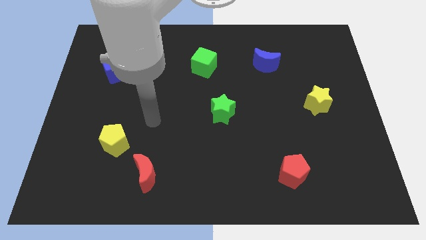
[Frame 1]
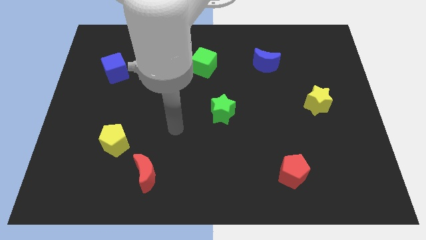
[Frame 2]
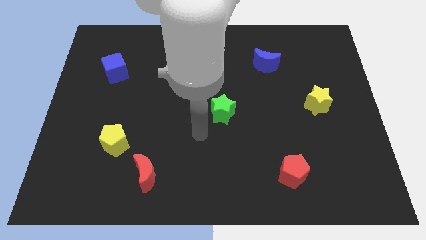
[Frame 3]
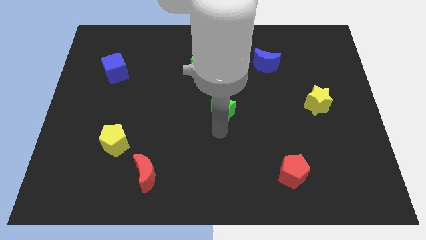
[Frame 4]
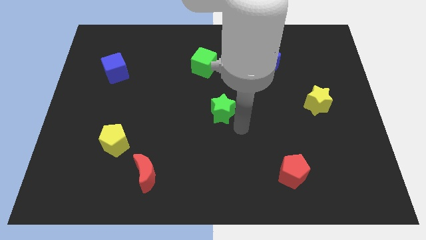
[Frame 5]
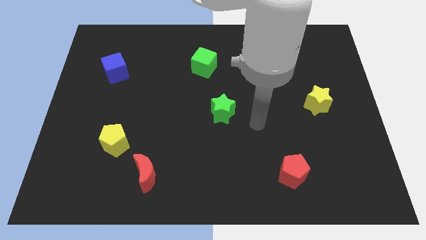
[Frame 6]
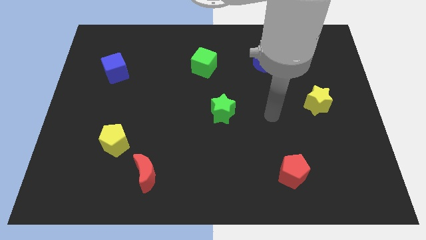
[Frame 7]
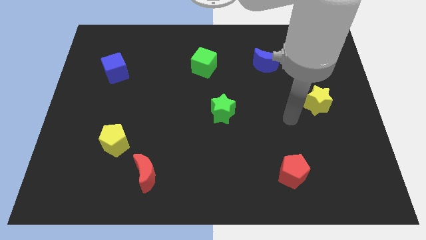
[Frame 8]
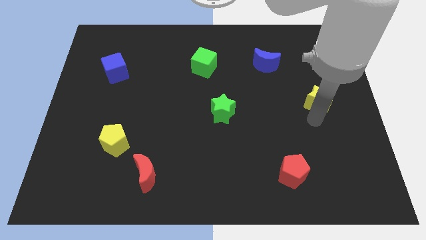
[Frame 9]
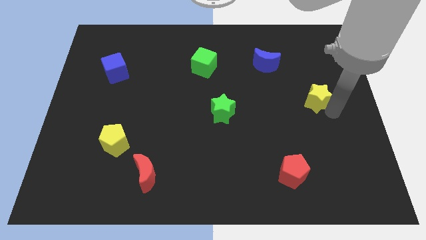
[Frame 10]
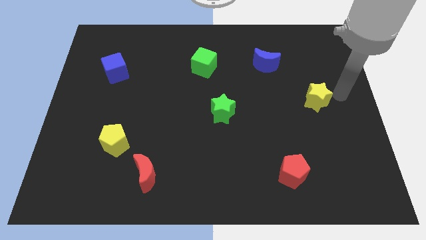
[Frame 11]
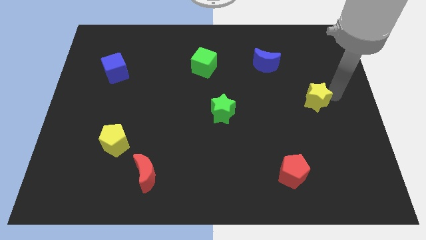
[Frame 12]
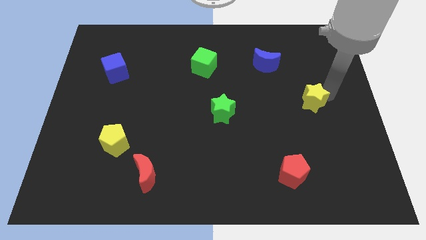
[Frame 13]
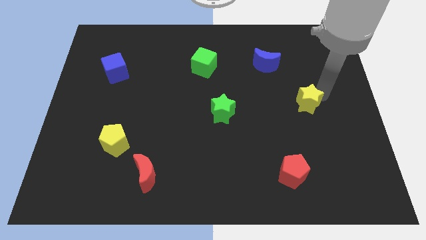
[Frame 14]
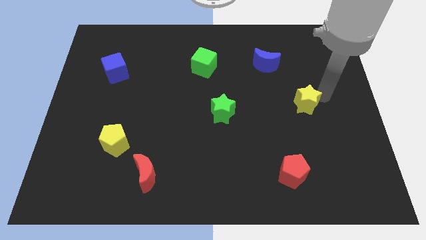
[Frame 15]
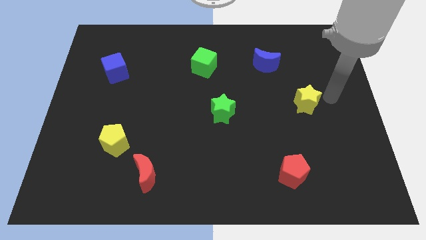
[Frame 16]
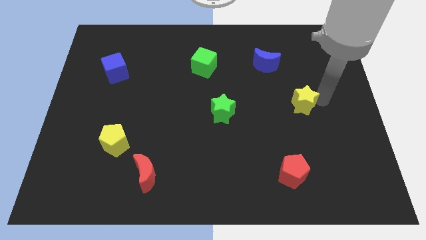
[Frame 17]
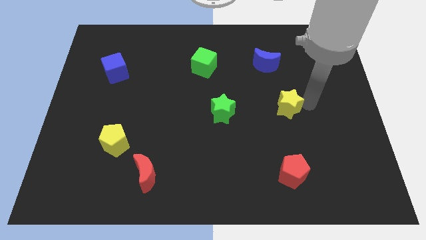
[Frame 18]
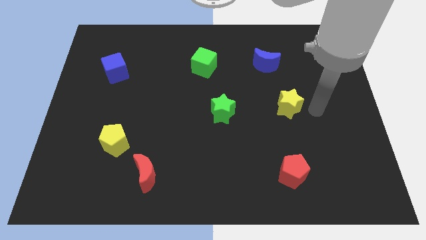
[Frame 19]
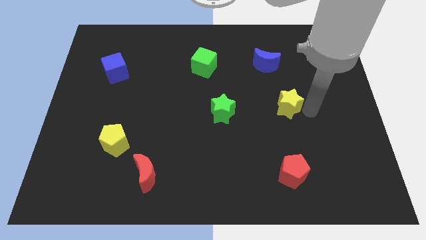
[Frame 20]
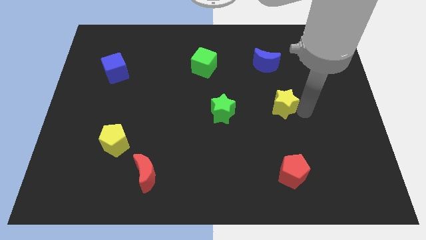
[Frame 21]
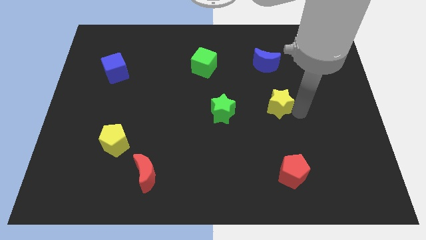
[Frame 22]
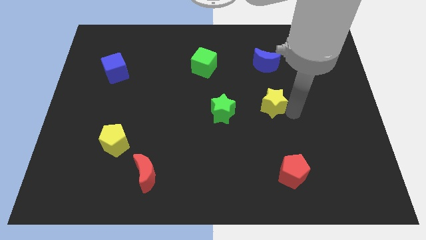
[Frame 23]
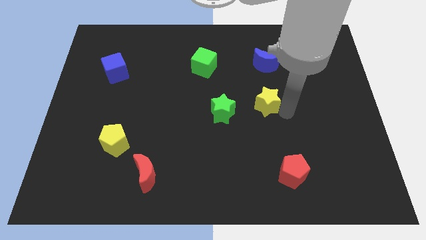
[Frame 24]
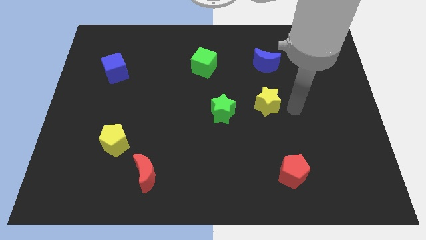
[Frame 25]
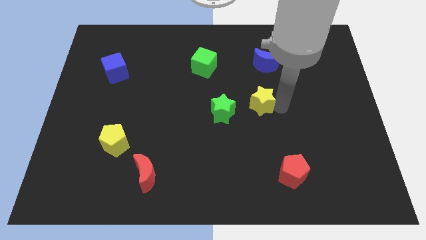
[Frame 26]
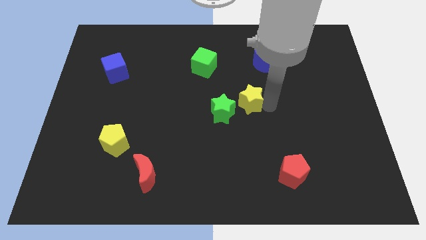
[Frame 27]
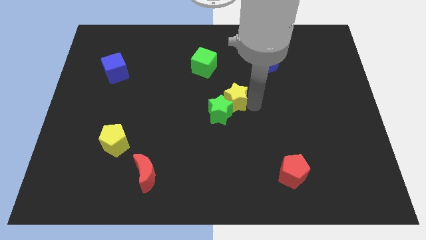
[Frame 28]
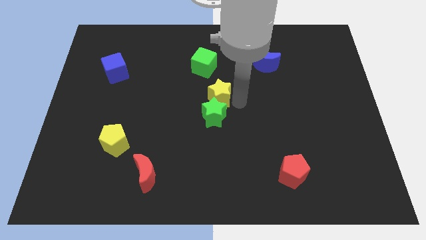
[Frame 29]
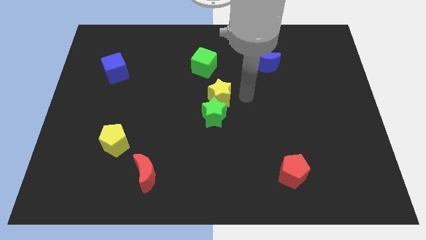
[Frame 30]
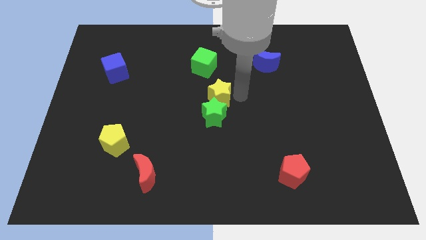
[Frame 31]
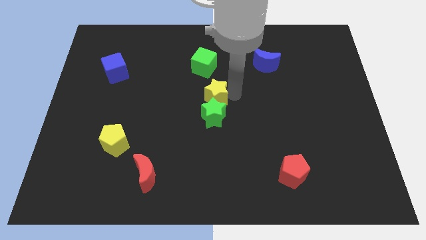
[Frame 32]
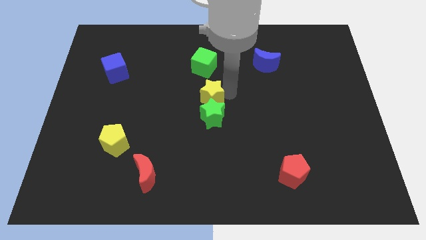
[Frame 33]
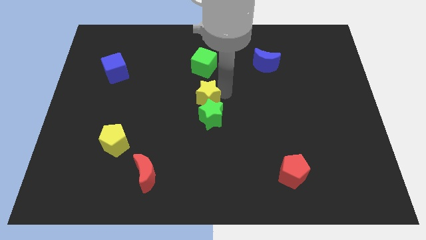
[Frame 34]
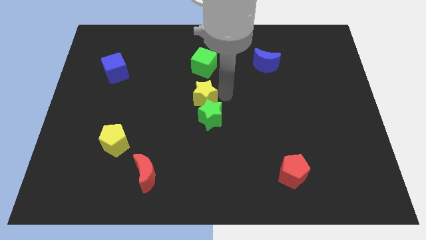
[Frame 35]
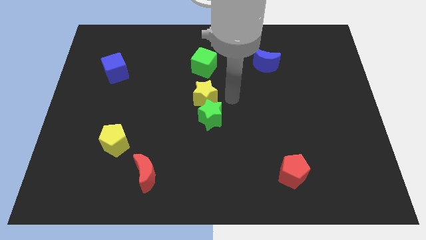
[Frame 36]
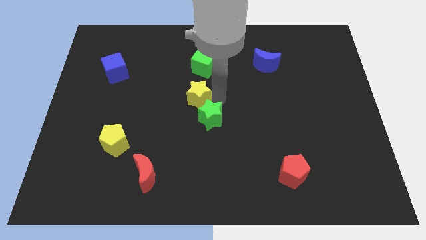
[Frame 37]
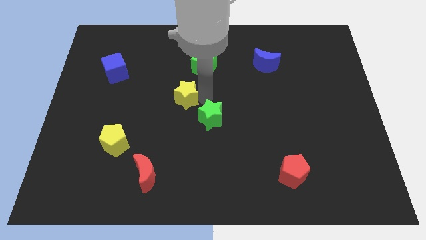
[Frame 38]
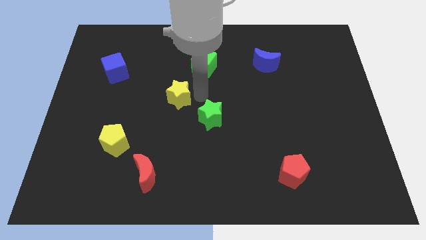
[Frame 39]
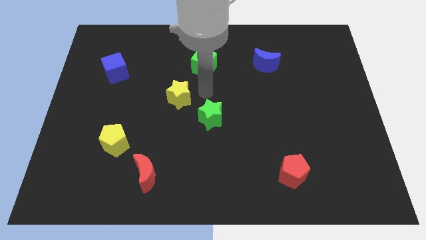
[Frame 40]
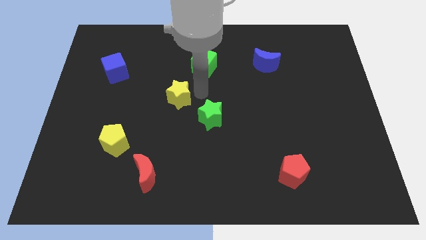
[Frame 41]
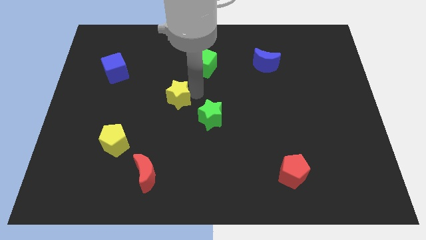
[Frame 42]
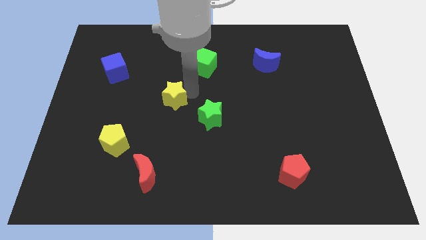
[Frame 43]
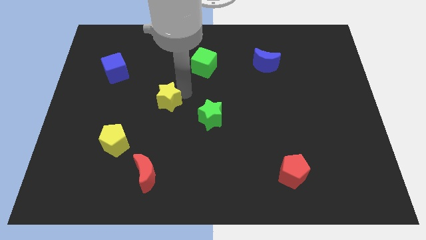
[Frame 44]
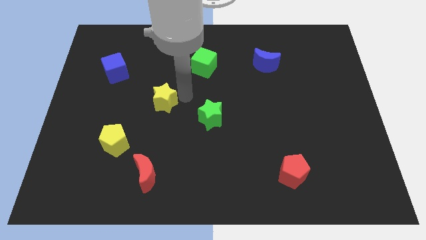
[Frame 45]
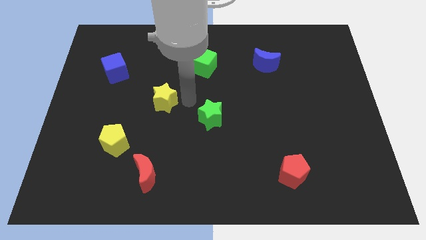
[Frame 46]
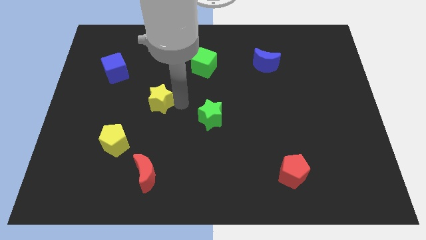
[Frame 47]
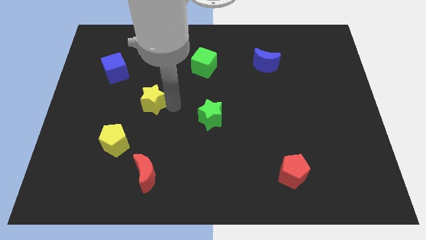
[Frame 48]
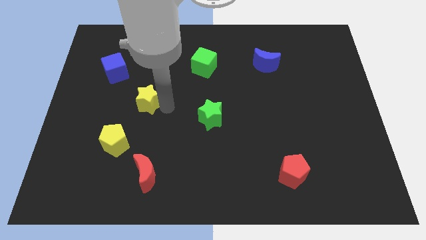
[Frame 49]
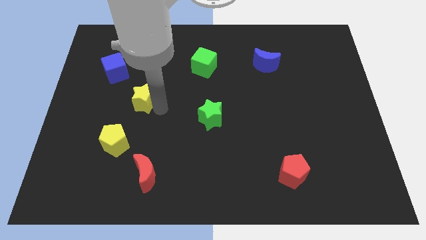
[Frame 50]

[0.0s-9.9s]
put the yellow star to the top of the yellow pentagon

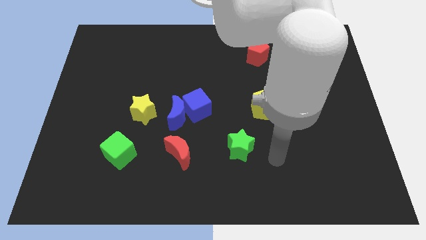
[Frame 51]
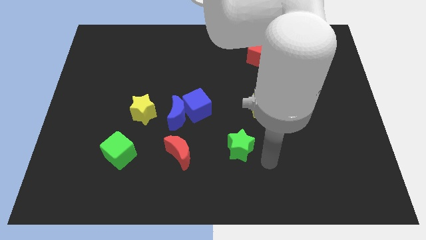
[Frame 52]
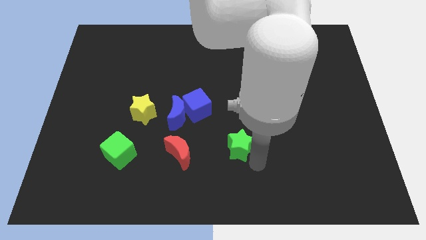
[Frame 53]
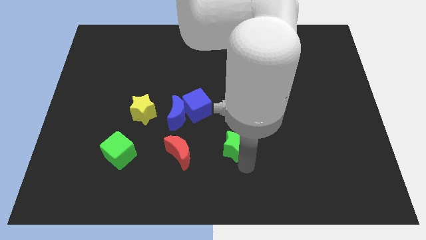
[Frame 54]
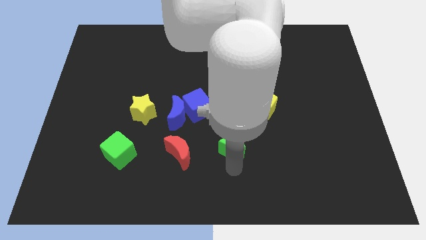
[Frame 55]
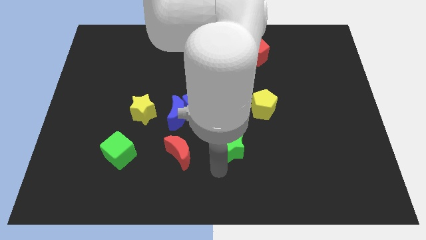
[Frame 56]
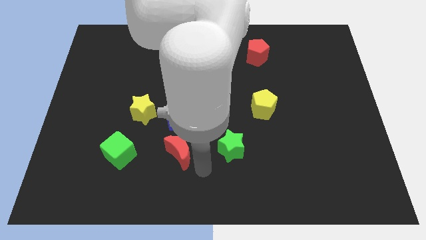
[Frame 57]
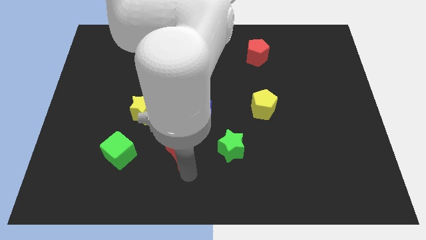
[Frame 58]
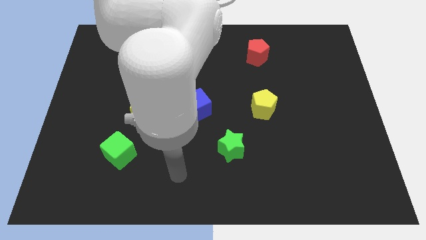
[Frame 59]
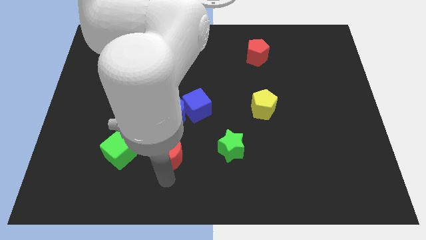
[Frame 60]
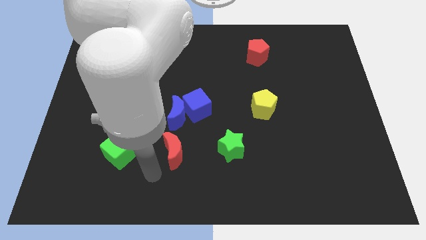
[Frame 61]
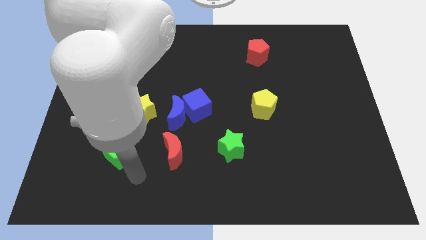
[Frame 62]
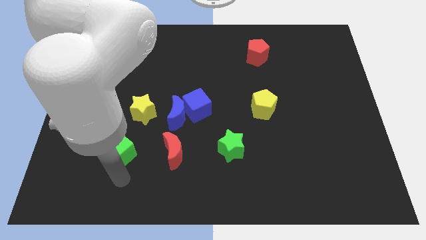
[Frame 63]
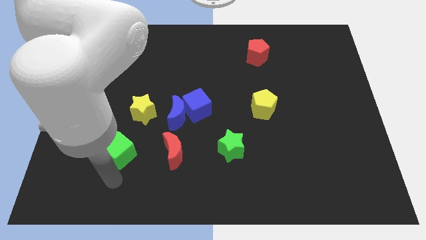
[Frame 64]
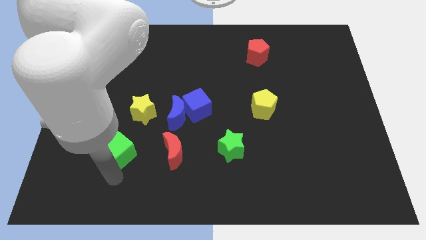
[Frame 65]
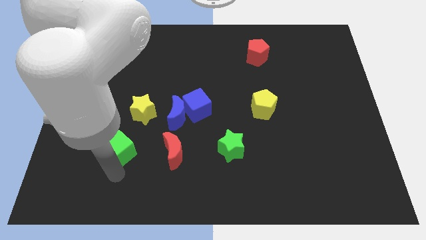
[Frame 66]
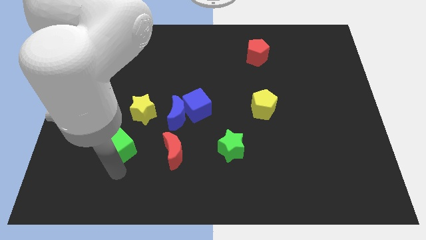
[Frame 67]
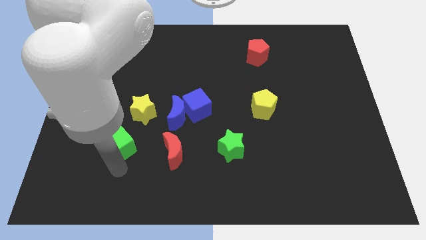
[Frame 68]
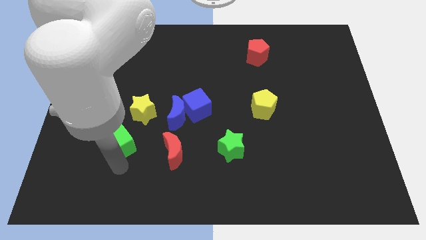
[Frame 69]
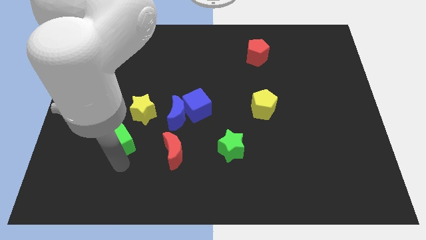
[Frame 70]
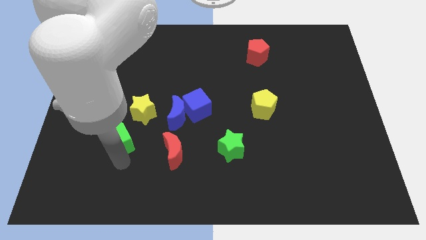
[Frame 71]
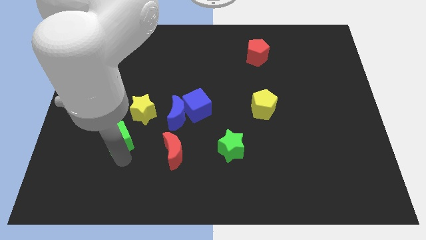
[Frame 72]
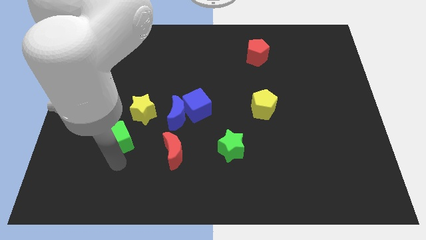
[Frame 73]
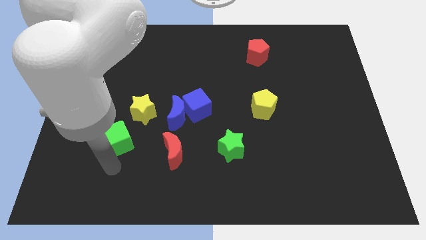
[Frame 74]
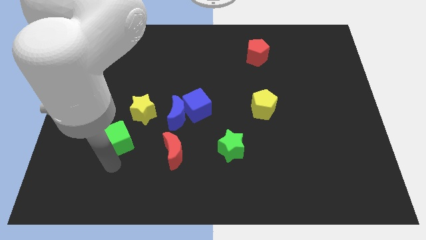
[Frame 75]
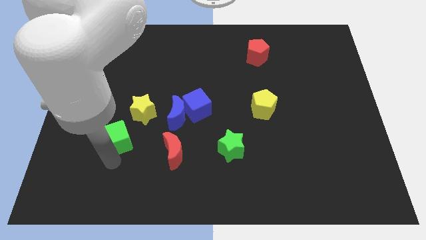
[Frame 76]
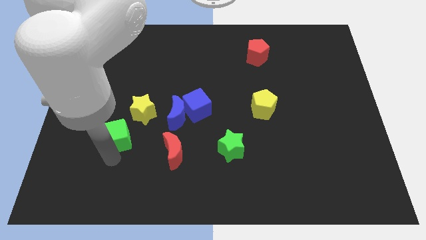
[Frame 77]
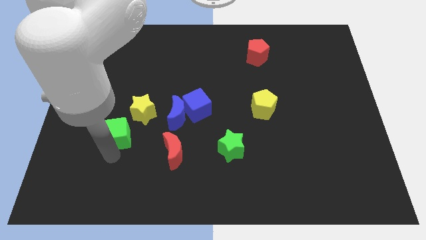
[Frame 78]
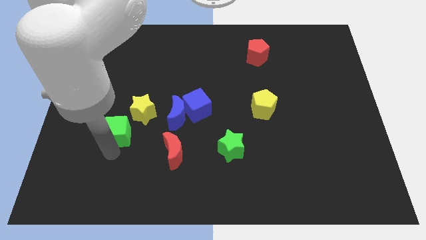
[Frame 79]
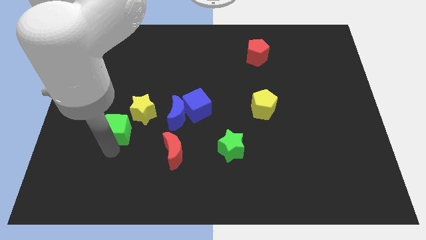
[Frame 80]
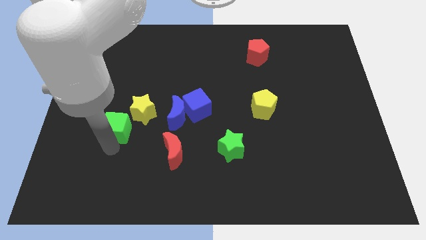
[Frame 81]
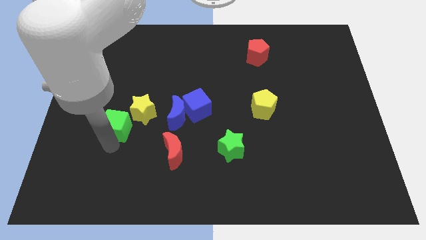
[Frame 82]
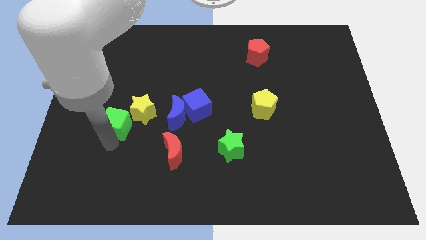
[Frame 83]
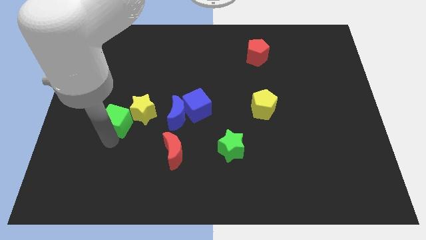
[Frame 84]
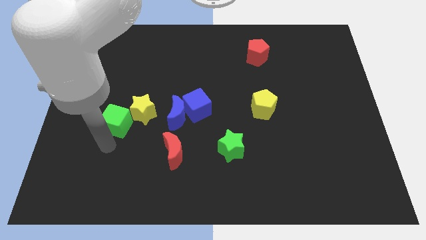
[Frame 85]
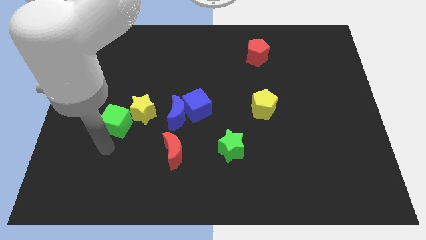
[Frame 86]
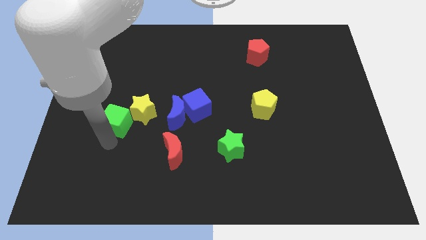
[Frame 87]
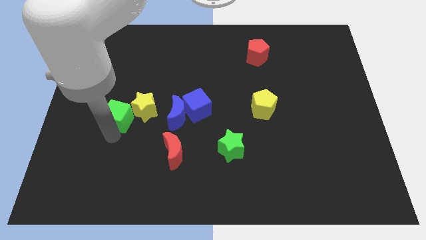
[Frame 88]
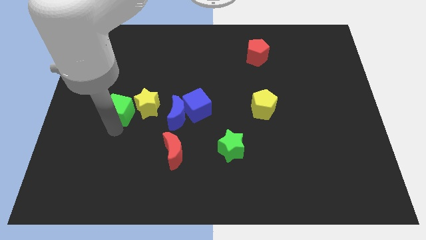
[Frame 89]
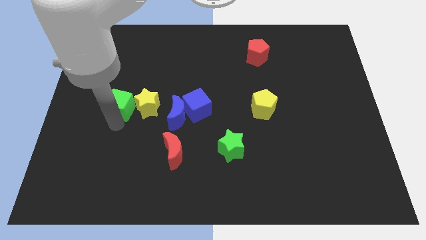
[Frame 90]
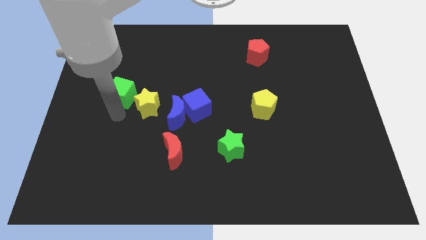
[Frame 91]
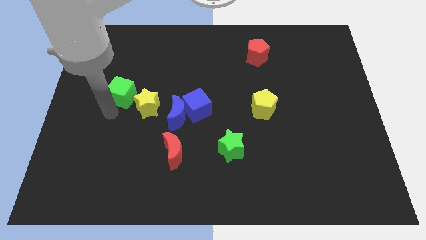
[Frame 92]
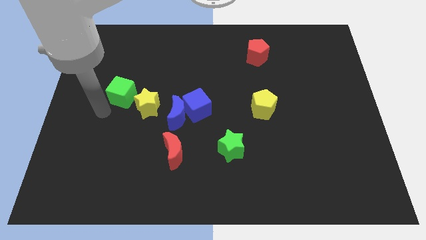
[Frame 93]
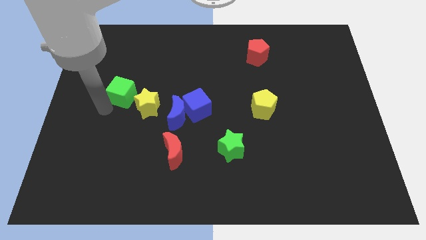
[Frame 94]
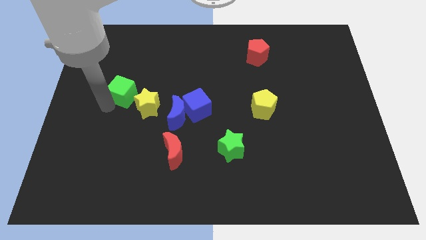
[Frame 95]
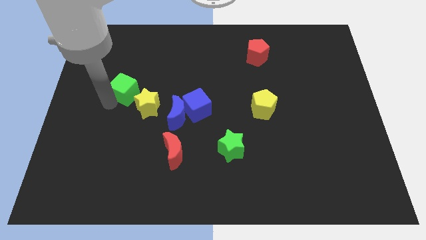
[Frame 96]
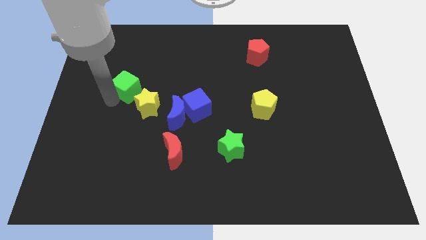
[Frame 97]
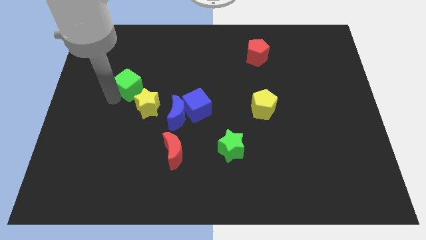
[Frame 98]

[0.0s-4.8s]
put the green cube to the top side of the yellow star
